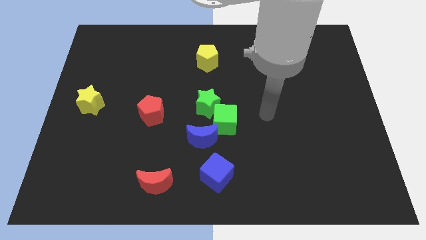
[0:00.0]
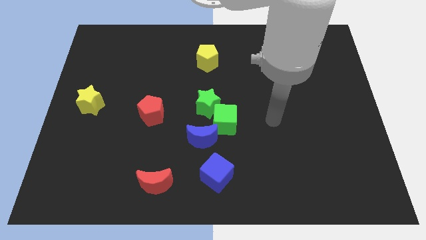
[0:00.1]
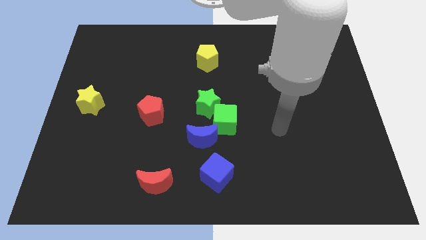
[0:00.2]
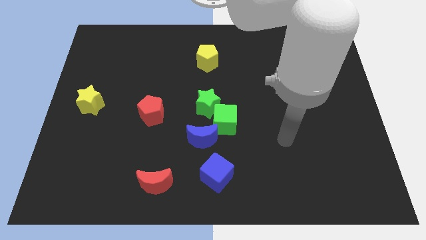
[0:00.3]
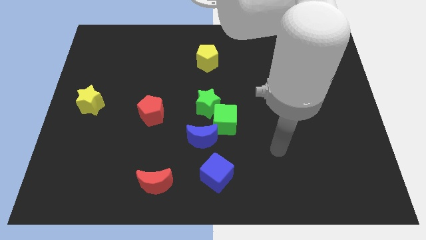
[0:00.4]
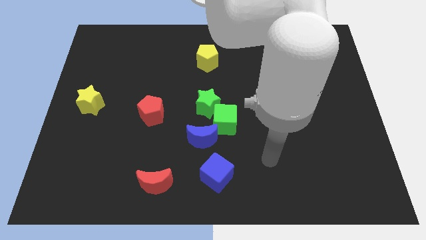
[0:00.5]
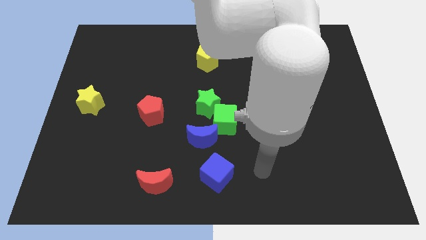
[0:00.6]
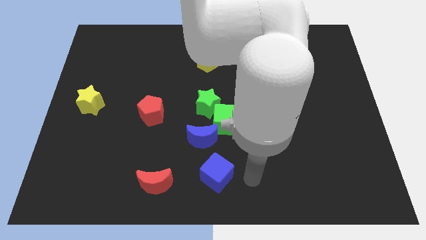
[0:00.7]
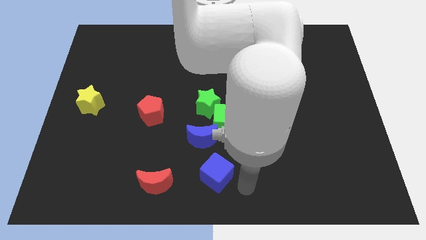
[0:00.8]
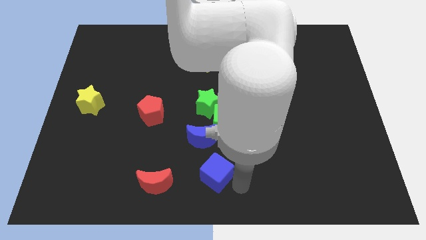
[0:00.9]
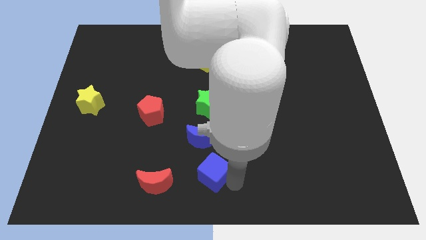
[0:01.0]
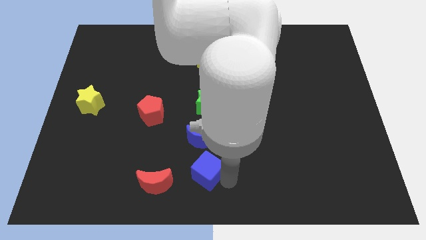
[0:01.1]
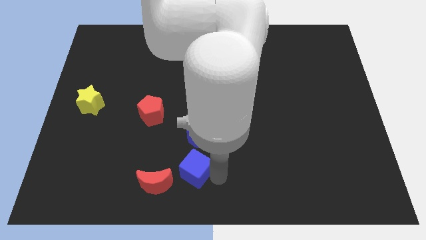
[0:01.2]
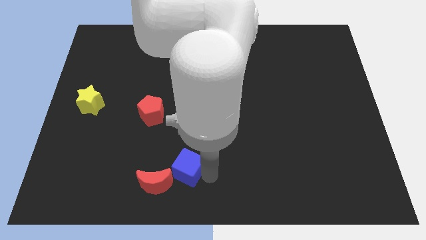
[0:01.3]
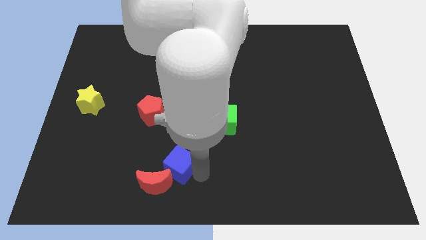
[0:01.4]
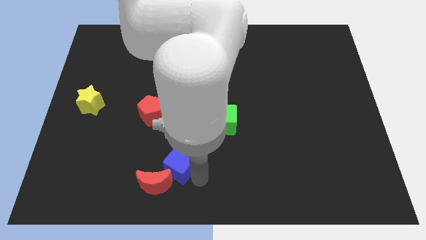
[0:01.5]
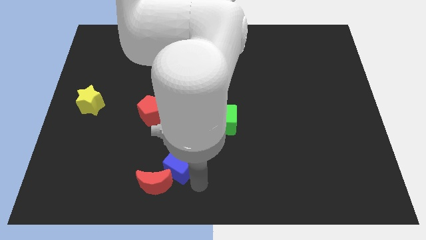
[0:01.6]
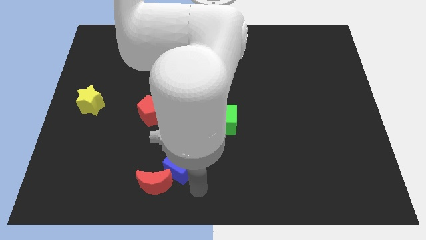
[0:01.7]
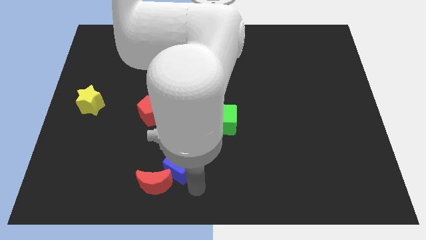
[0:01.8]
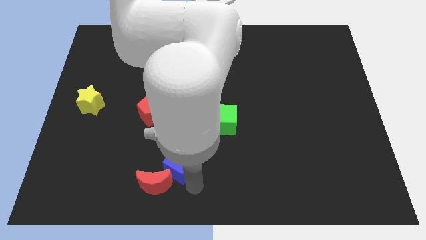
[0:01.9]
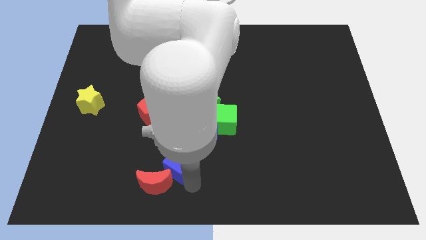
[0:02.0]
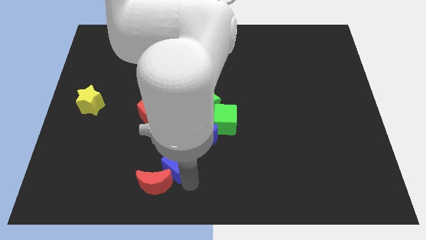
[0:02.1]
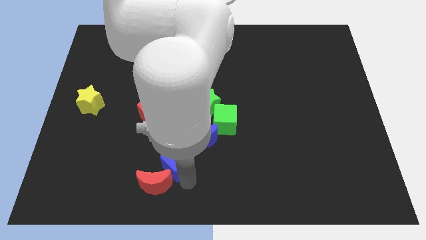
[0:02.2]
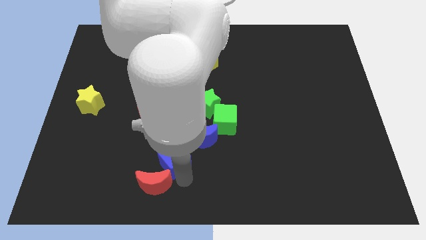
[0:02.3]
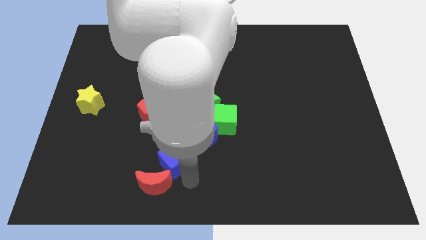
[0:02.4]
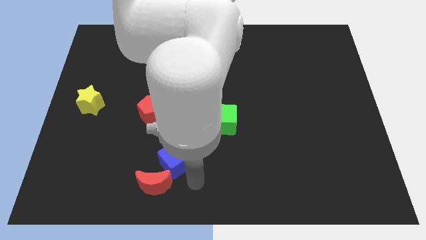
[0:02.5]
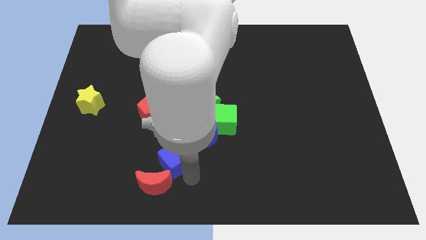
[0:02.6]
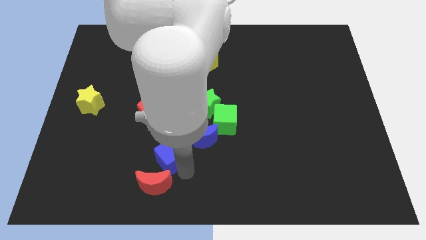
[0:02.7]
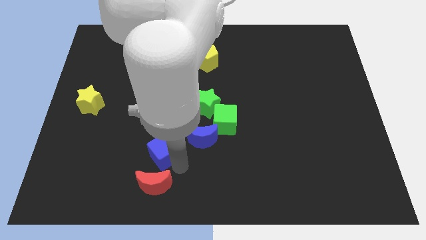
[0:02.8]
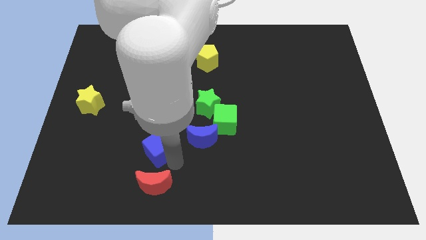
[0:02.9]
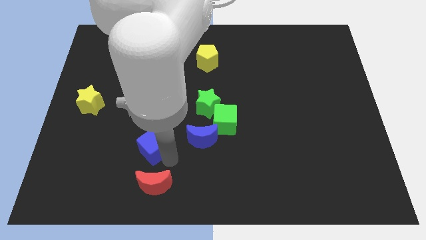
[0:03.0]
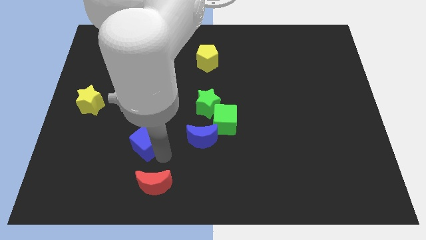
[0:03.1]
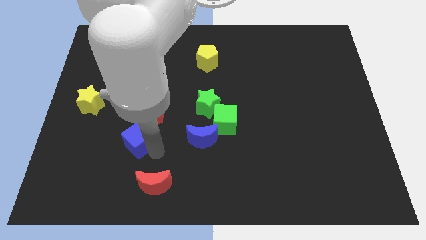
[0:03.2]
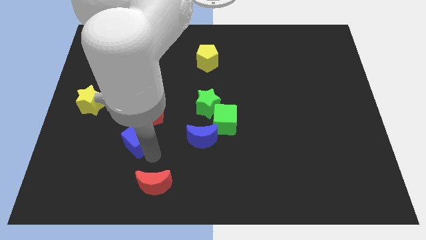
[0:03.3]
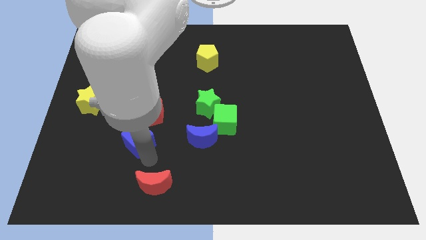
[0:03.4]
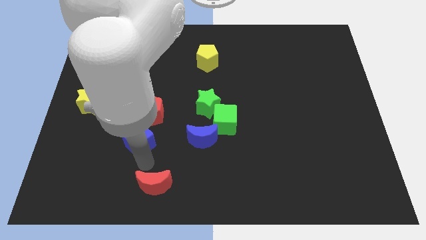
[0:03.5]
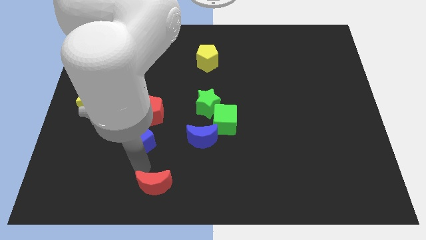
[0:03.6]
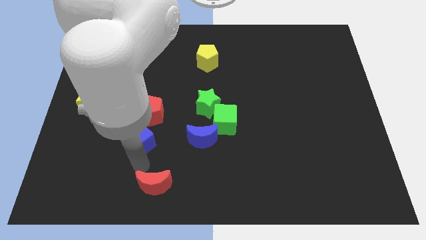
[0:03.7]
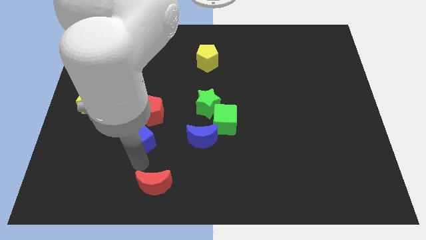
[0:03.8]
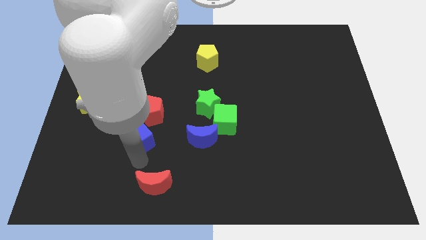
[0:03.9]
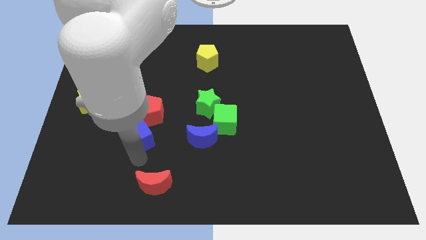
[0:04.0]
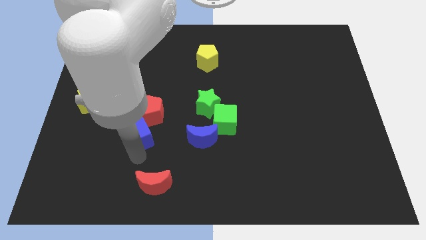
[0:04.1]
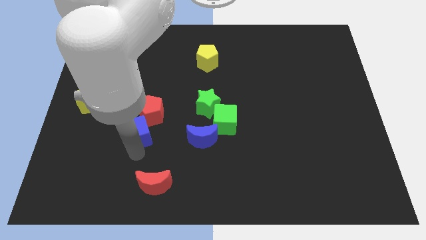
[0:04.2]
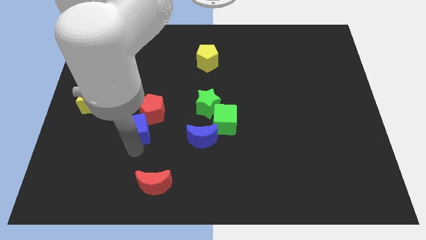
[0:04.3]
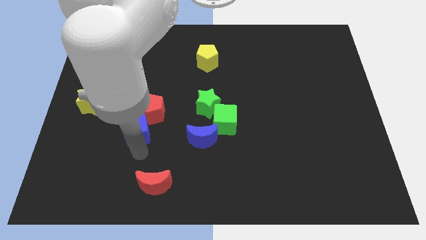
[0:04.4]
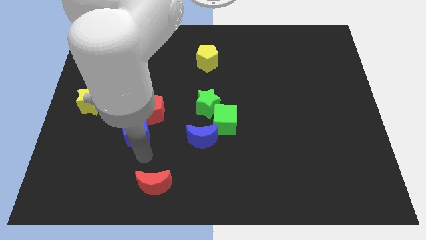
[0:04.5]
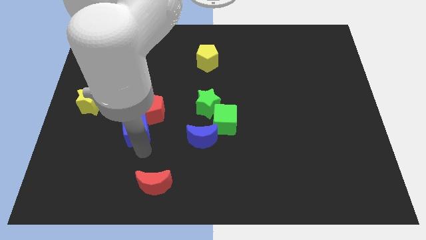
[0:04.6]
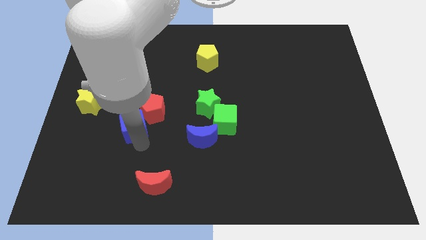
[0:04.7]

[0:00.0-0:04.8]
slide the blue cube diagonally upwards and to the left

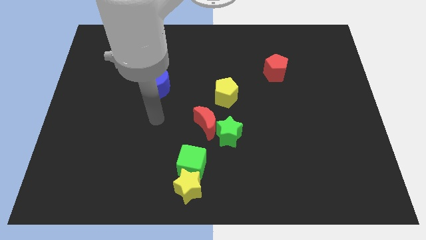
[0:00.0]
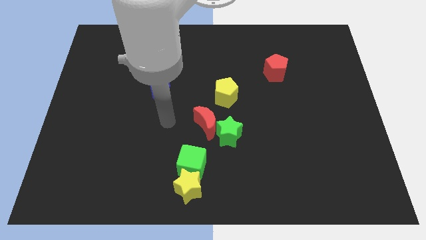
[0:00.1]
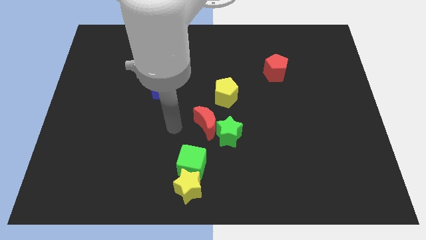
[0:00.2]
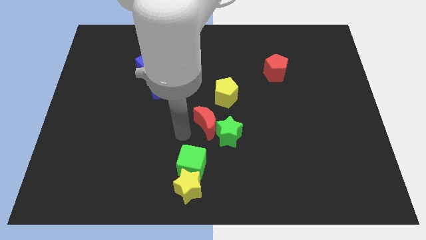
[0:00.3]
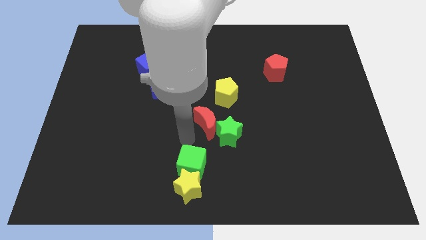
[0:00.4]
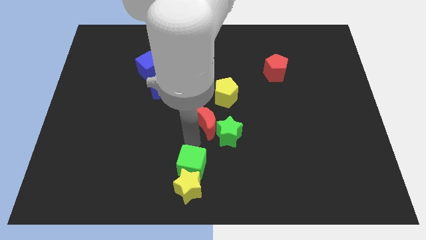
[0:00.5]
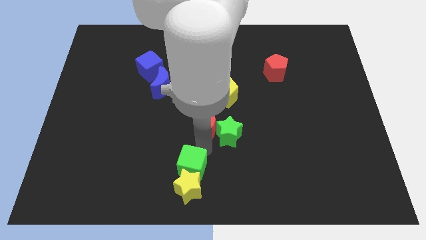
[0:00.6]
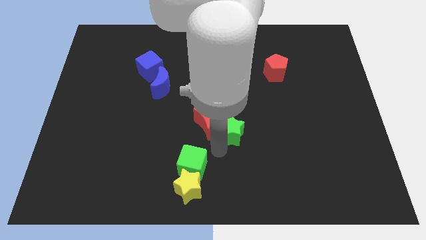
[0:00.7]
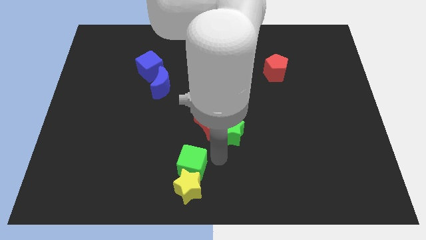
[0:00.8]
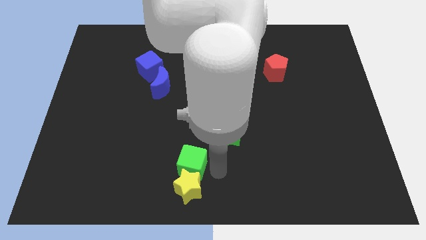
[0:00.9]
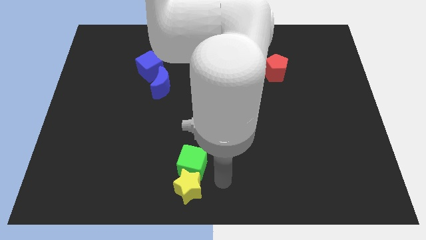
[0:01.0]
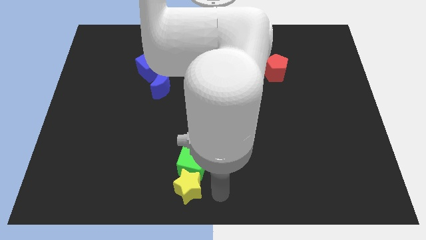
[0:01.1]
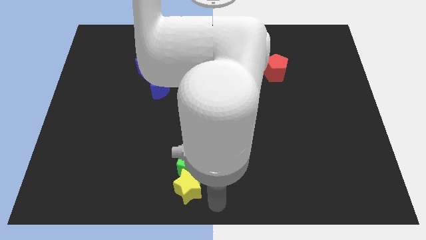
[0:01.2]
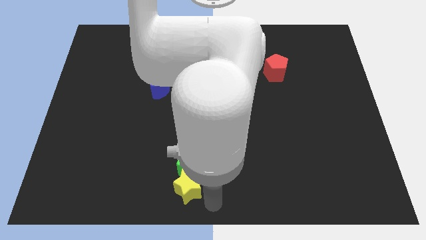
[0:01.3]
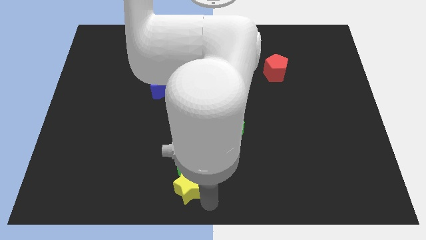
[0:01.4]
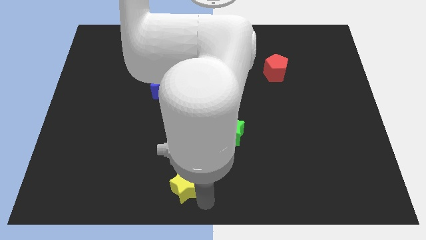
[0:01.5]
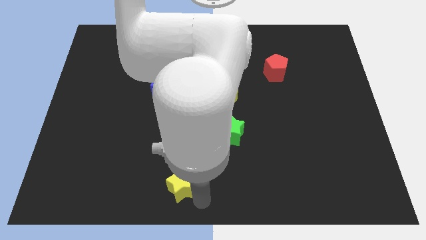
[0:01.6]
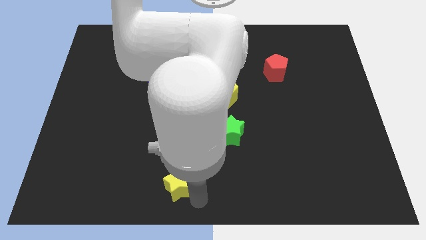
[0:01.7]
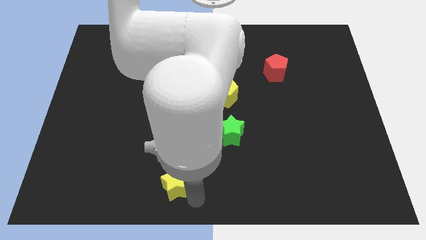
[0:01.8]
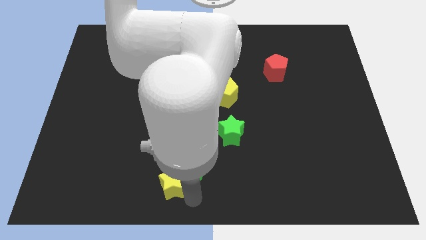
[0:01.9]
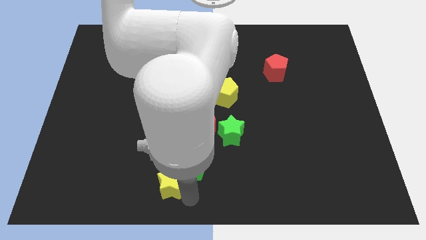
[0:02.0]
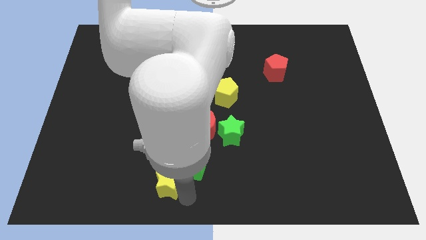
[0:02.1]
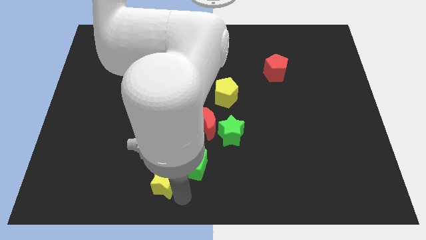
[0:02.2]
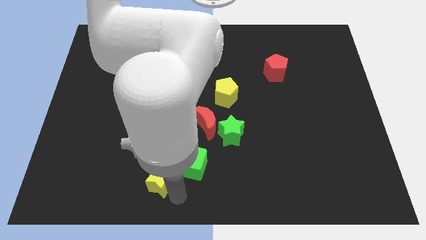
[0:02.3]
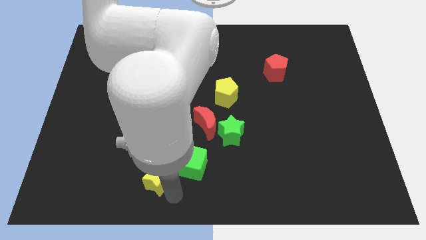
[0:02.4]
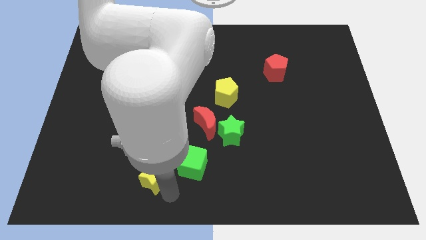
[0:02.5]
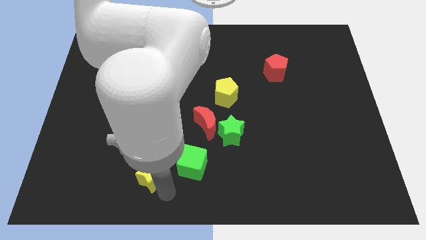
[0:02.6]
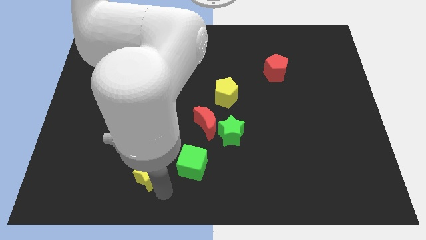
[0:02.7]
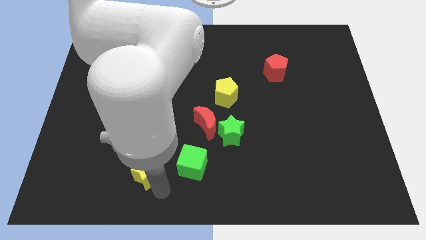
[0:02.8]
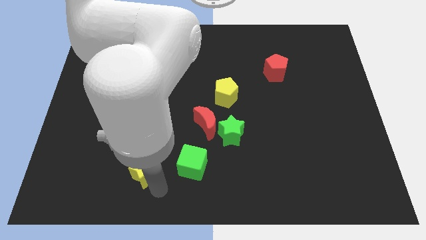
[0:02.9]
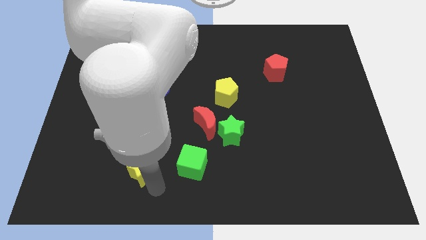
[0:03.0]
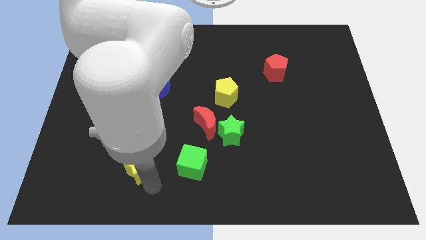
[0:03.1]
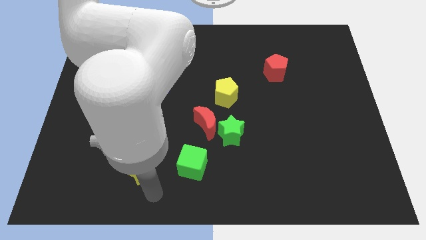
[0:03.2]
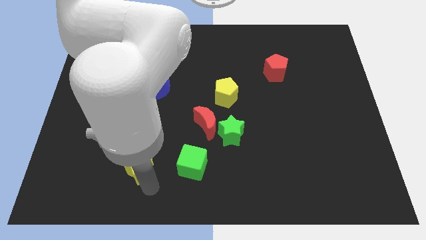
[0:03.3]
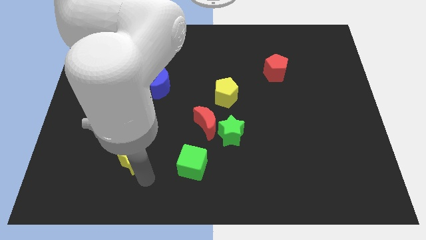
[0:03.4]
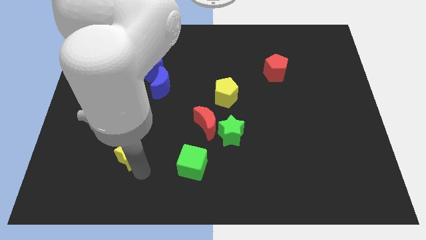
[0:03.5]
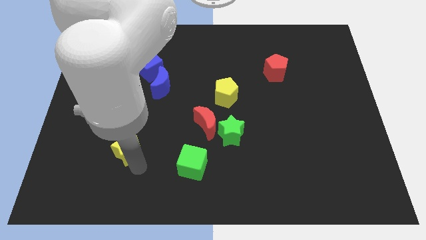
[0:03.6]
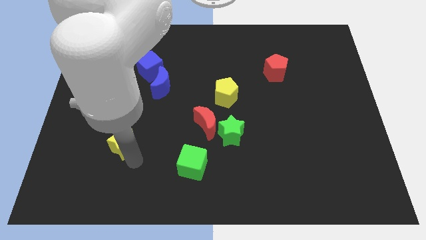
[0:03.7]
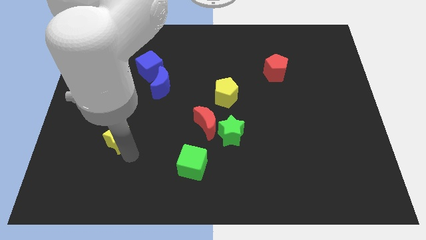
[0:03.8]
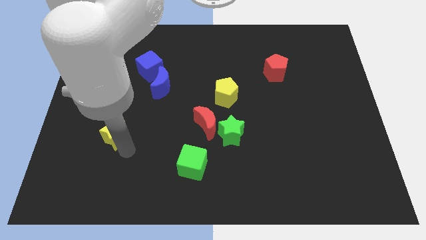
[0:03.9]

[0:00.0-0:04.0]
move the yellow star upwards and left
